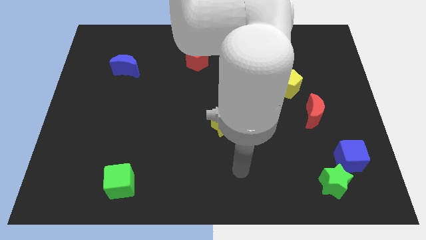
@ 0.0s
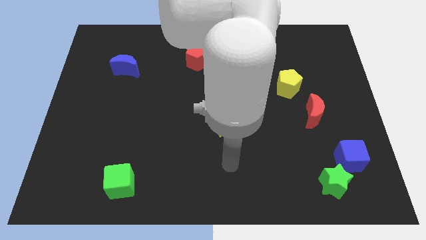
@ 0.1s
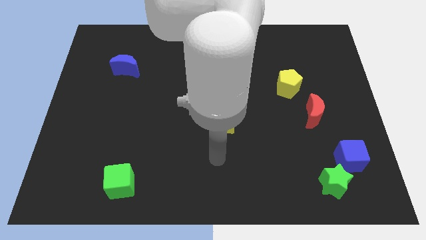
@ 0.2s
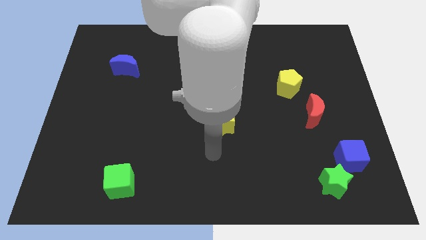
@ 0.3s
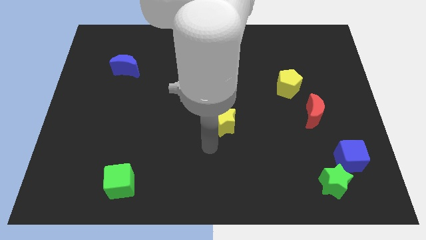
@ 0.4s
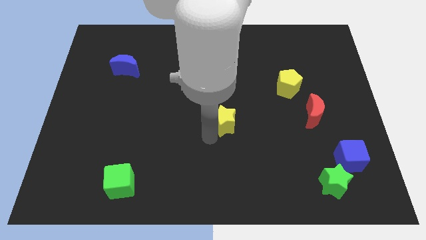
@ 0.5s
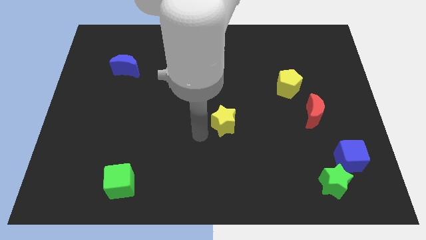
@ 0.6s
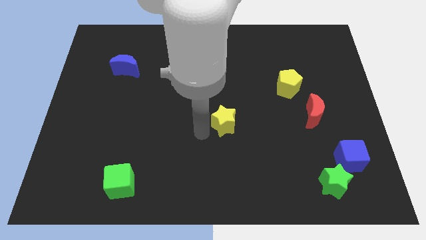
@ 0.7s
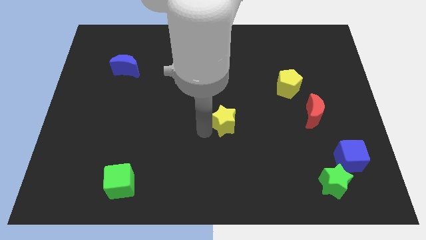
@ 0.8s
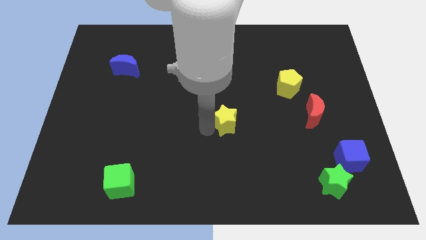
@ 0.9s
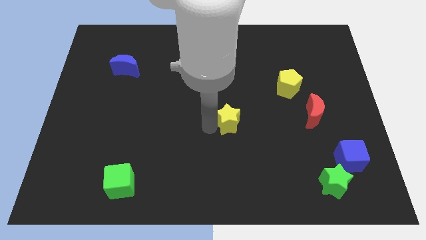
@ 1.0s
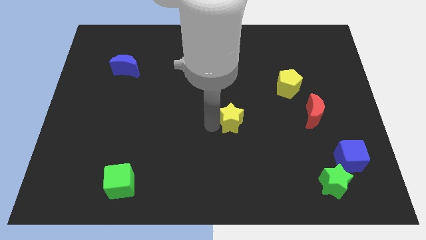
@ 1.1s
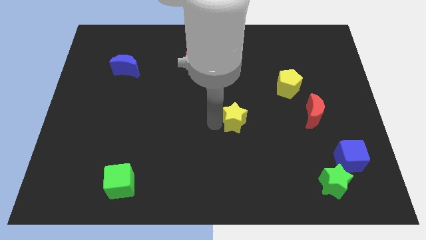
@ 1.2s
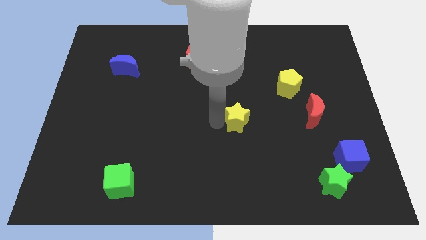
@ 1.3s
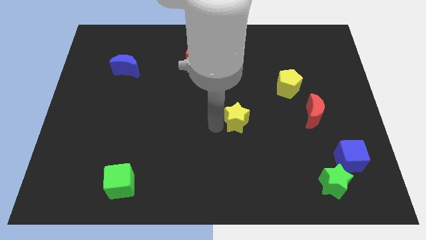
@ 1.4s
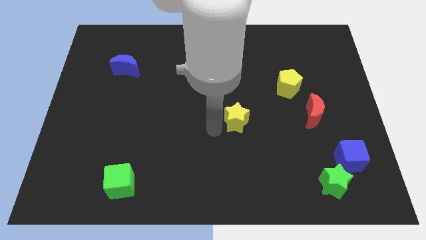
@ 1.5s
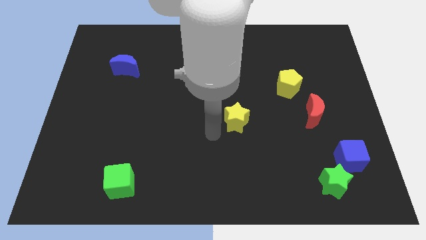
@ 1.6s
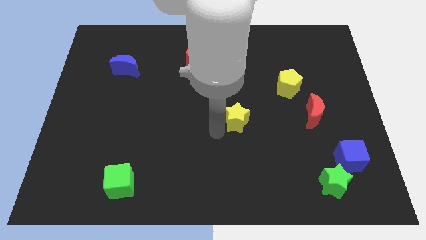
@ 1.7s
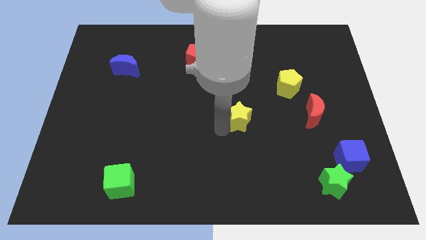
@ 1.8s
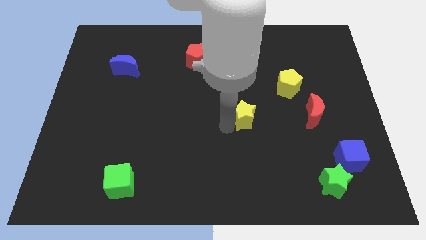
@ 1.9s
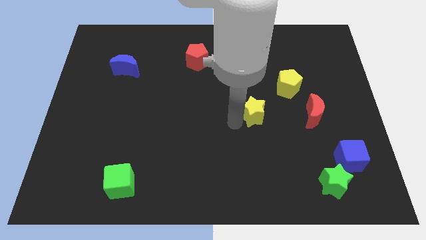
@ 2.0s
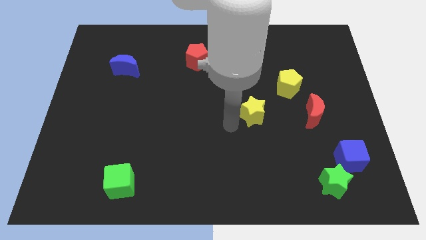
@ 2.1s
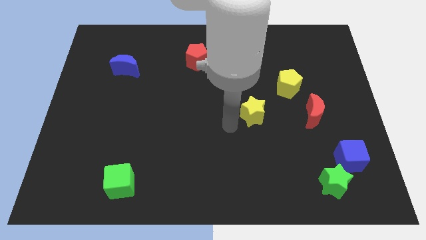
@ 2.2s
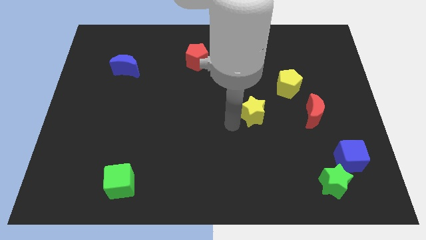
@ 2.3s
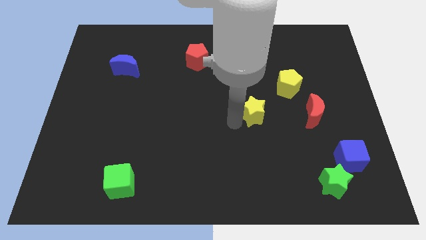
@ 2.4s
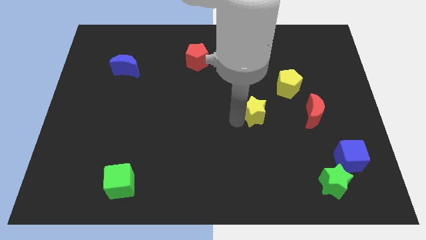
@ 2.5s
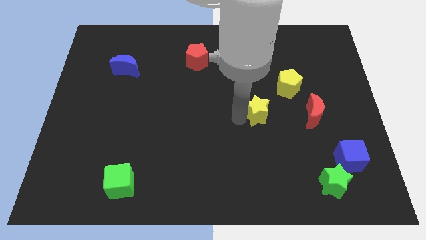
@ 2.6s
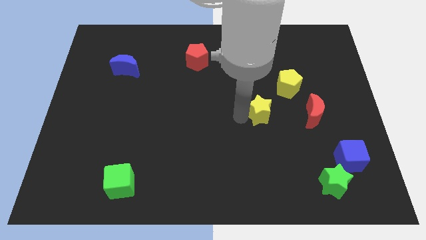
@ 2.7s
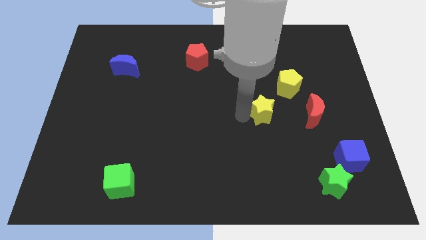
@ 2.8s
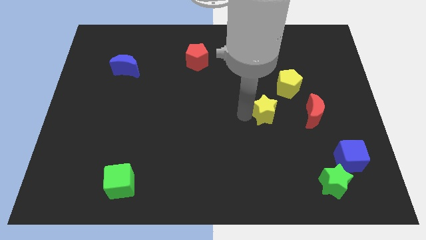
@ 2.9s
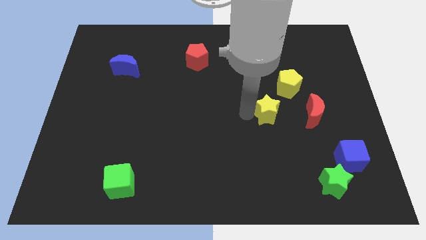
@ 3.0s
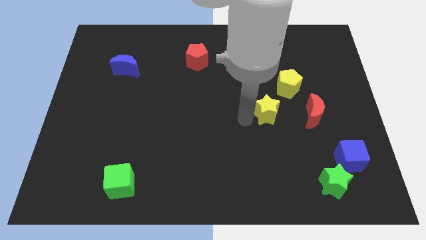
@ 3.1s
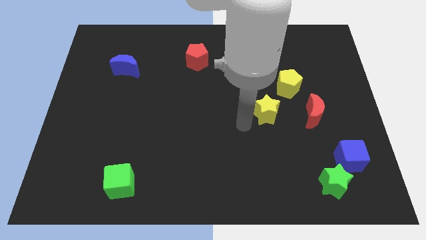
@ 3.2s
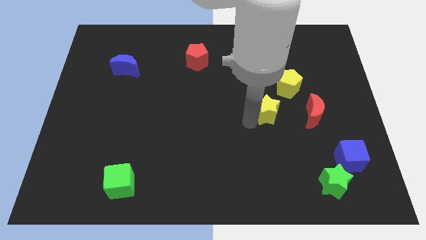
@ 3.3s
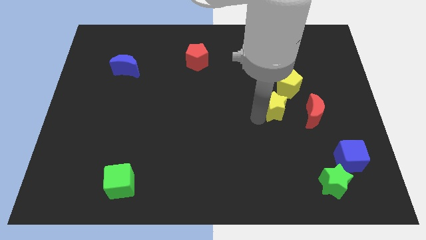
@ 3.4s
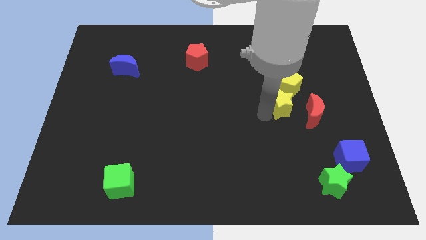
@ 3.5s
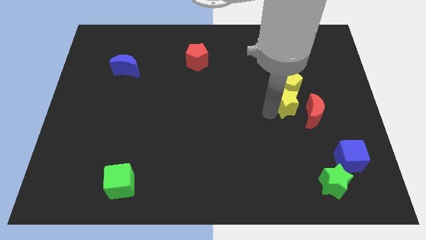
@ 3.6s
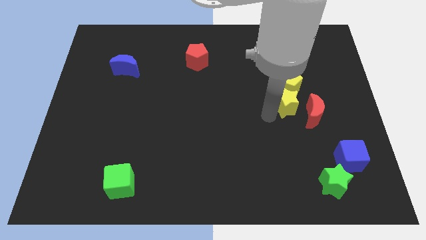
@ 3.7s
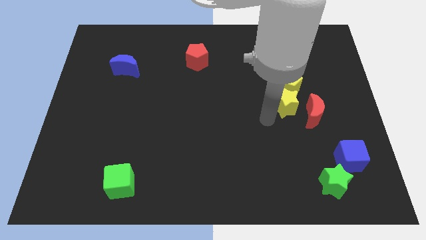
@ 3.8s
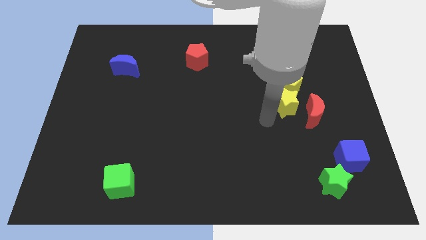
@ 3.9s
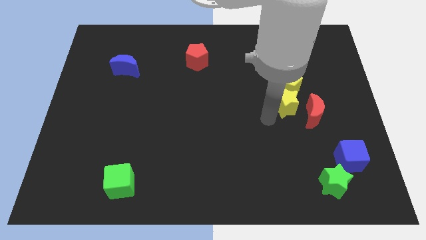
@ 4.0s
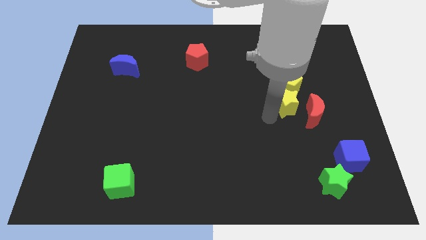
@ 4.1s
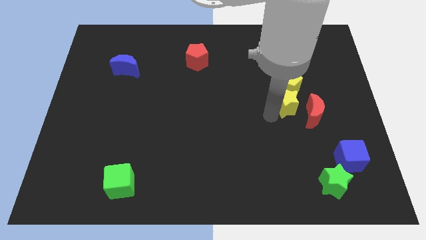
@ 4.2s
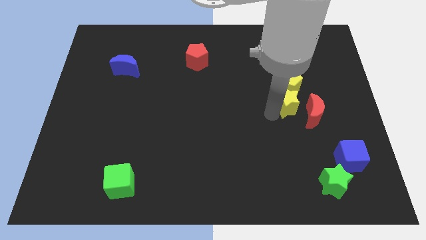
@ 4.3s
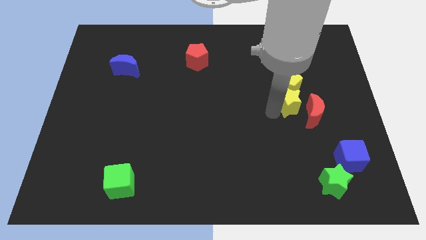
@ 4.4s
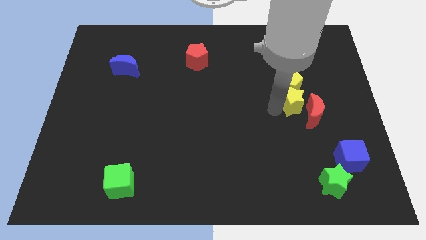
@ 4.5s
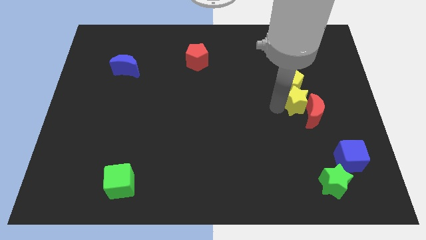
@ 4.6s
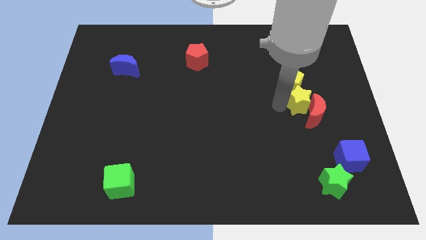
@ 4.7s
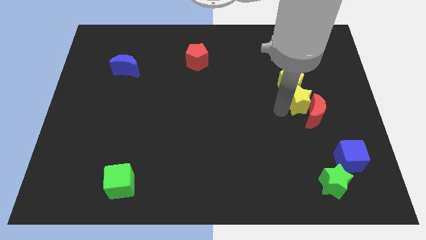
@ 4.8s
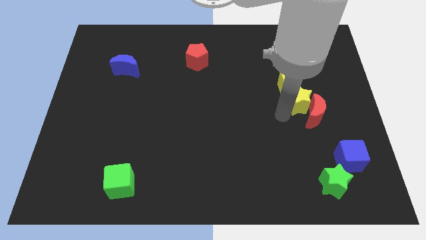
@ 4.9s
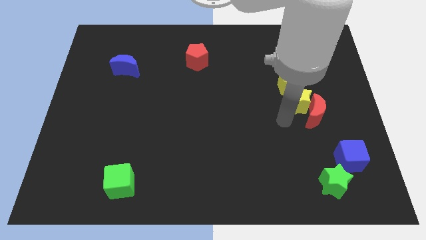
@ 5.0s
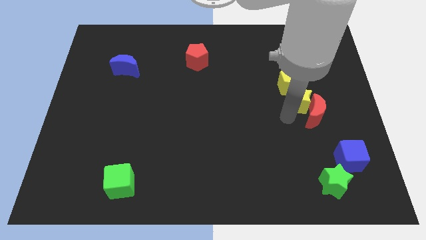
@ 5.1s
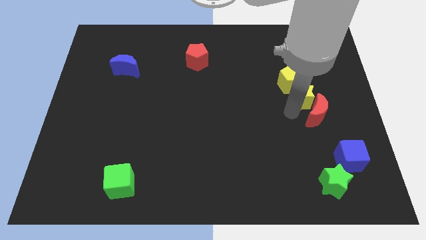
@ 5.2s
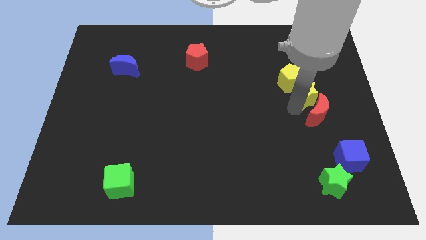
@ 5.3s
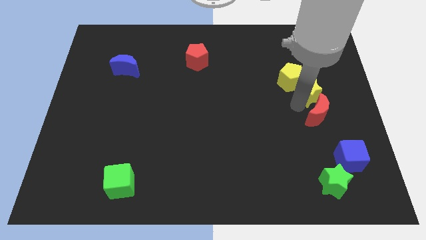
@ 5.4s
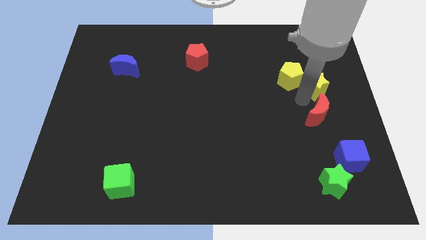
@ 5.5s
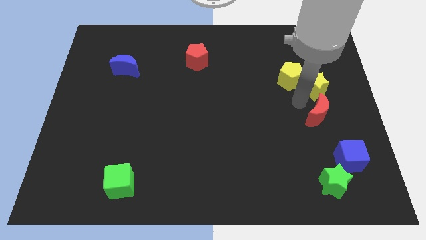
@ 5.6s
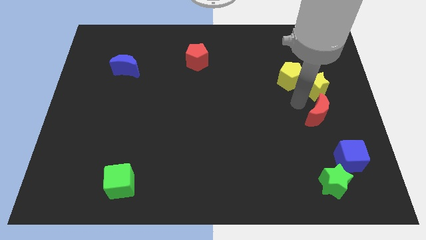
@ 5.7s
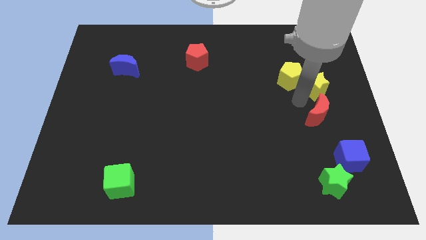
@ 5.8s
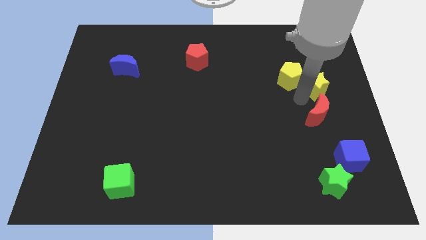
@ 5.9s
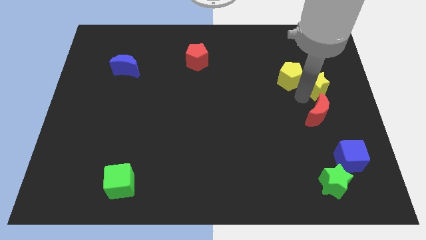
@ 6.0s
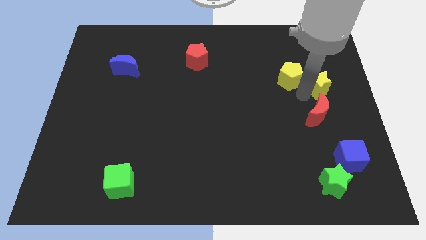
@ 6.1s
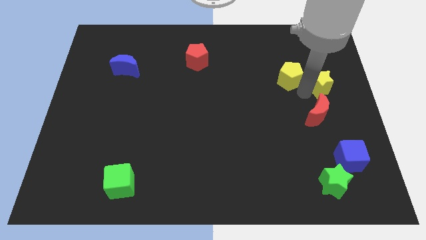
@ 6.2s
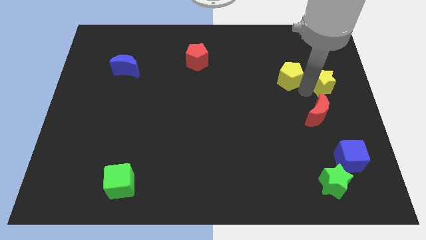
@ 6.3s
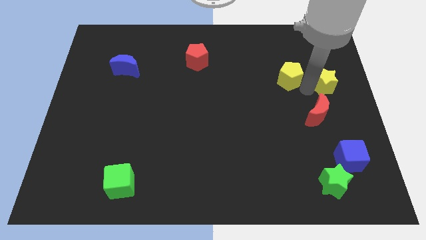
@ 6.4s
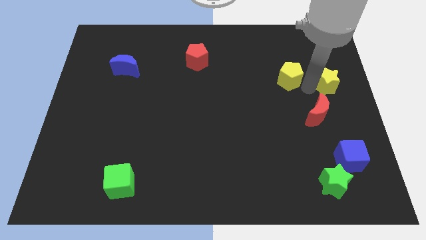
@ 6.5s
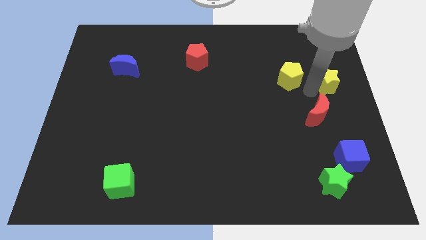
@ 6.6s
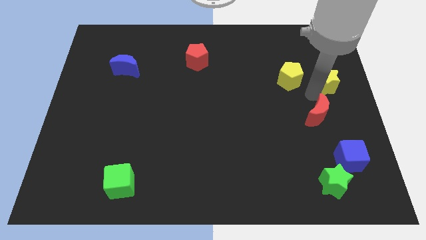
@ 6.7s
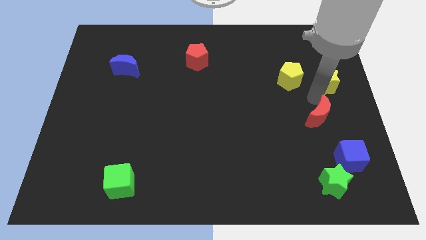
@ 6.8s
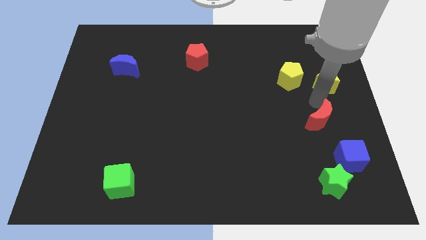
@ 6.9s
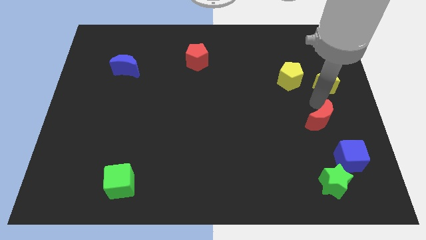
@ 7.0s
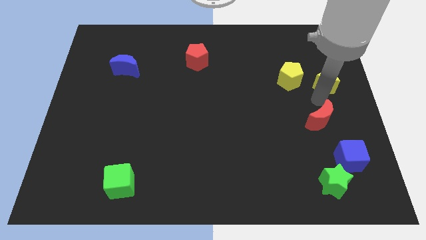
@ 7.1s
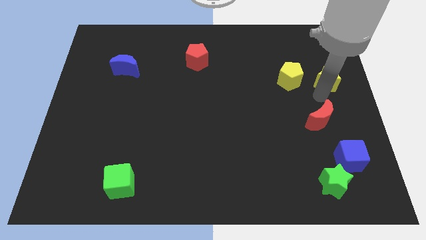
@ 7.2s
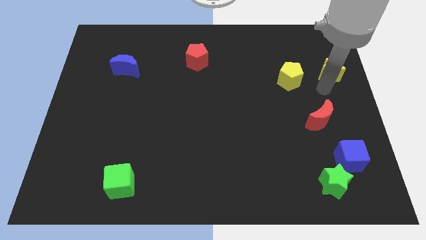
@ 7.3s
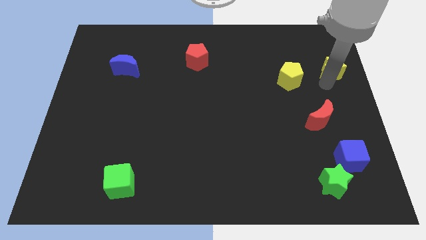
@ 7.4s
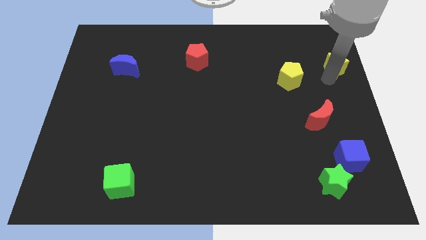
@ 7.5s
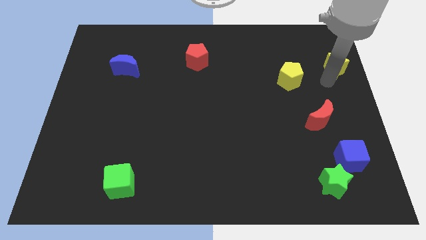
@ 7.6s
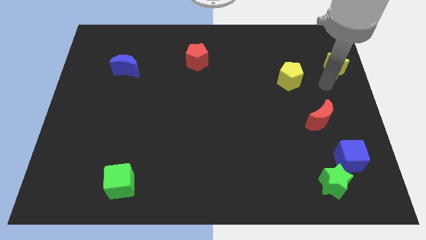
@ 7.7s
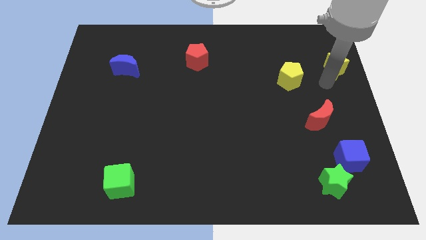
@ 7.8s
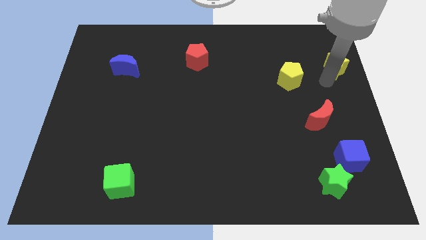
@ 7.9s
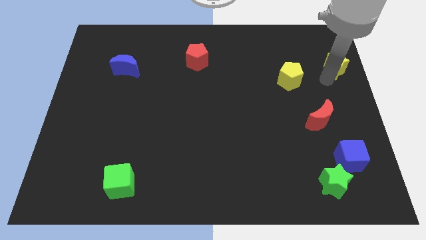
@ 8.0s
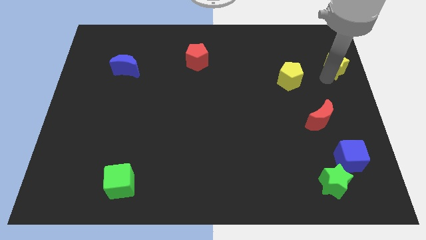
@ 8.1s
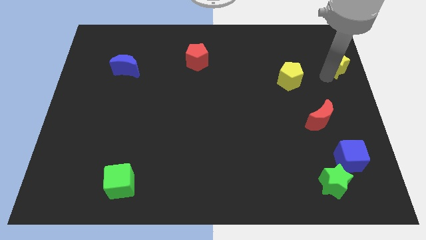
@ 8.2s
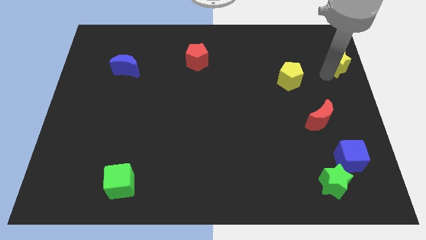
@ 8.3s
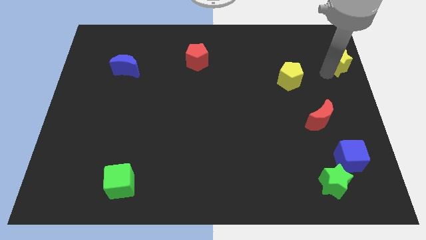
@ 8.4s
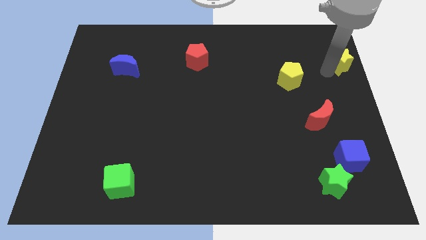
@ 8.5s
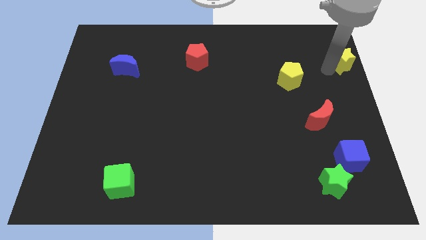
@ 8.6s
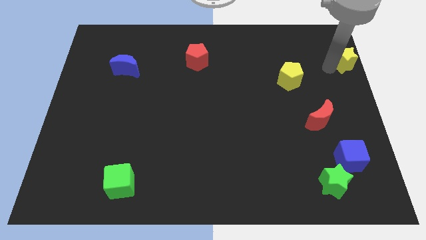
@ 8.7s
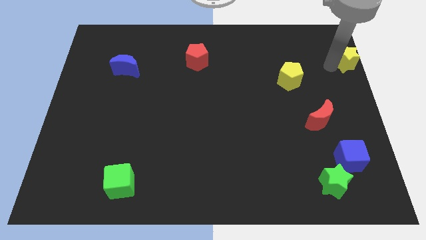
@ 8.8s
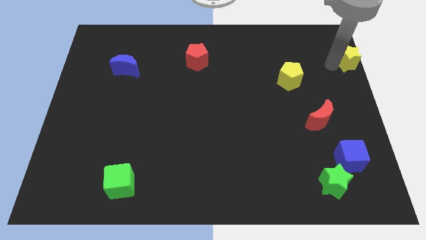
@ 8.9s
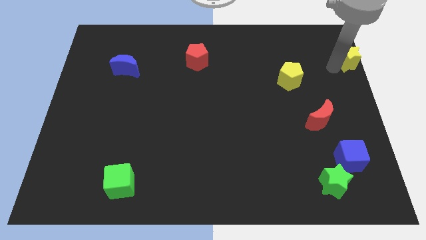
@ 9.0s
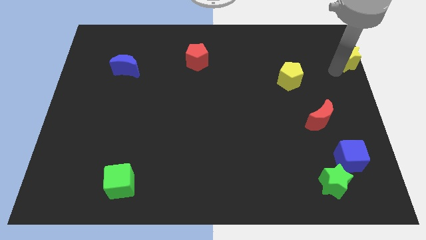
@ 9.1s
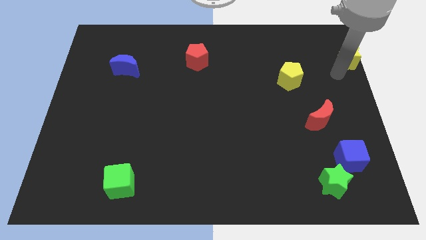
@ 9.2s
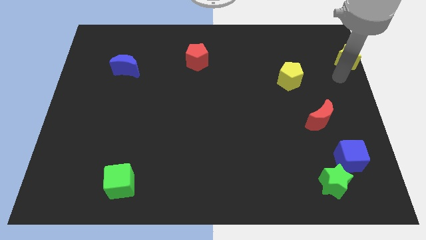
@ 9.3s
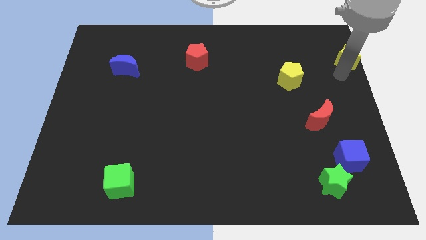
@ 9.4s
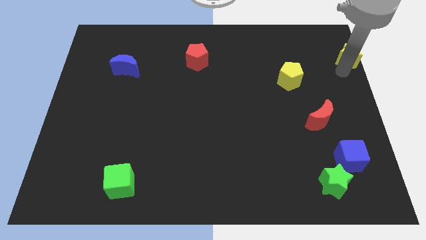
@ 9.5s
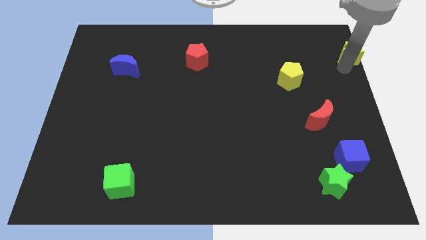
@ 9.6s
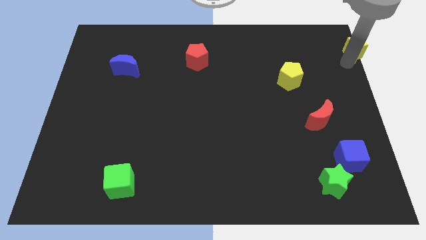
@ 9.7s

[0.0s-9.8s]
push the yellow star to the top right corner
